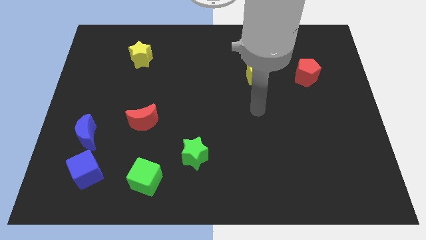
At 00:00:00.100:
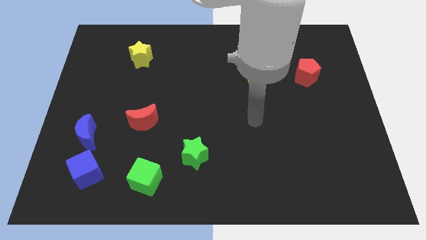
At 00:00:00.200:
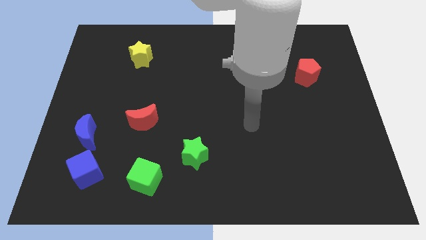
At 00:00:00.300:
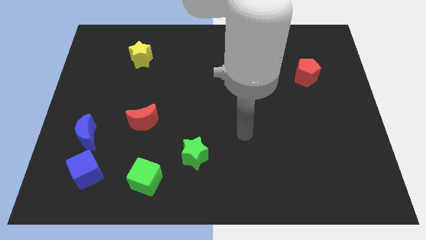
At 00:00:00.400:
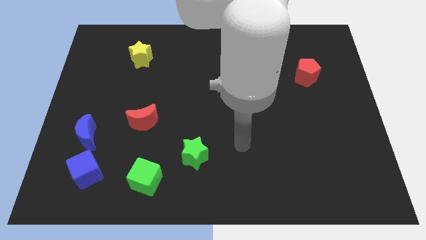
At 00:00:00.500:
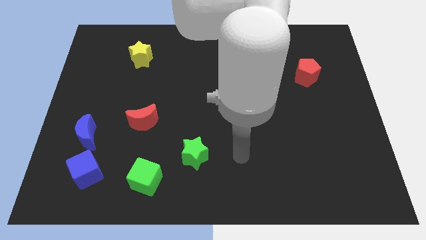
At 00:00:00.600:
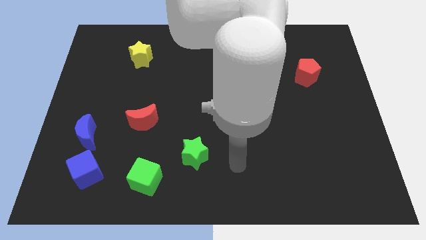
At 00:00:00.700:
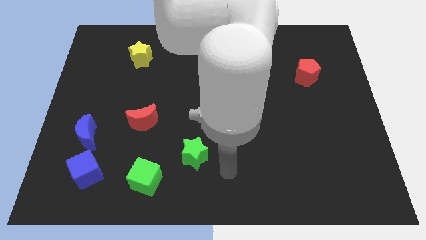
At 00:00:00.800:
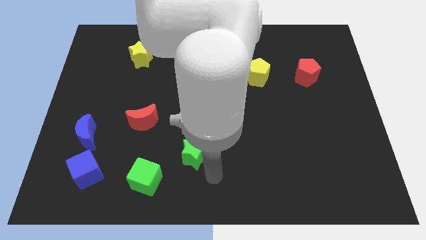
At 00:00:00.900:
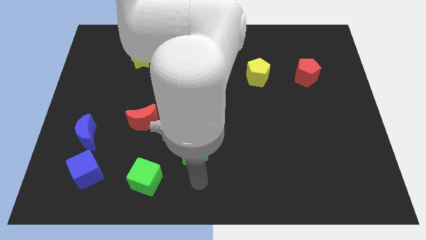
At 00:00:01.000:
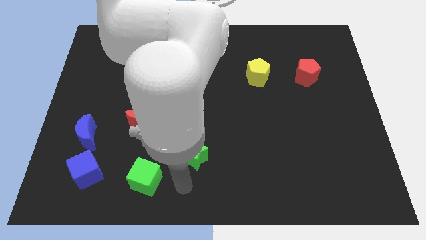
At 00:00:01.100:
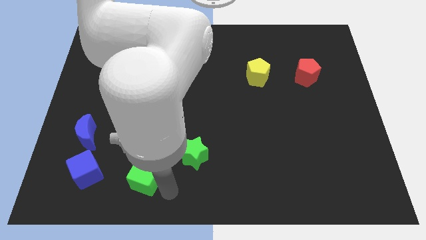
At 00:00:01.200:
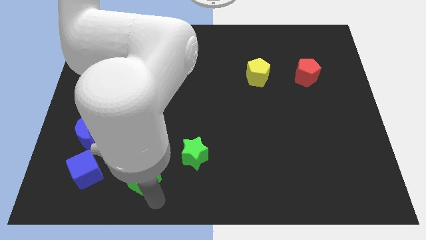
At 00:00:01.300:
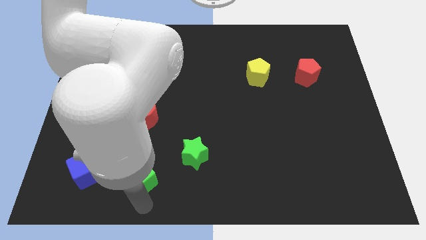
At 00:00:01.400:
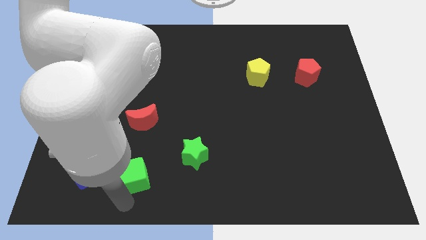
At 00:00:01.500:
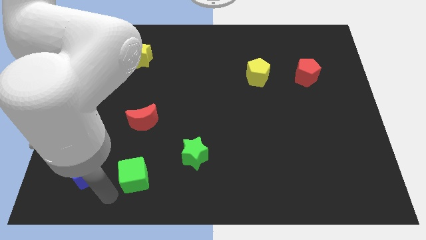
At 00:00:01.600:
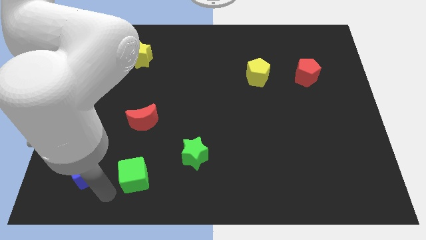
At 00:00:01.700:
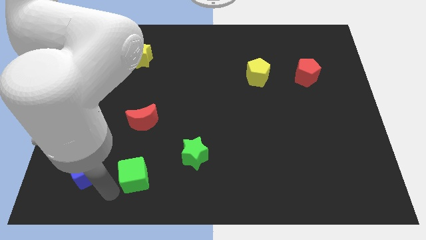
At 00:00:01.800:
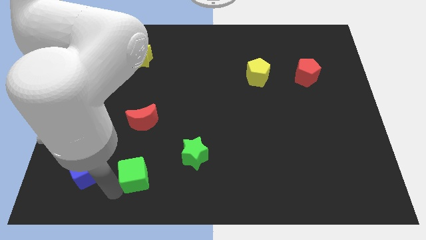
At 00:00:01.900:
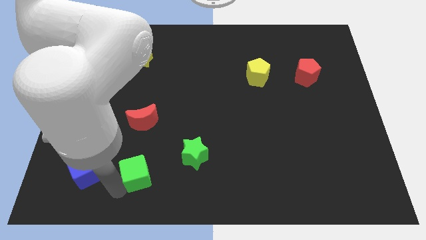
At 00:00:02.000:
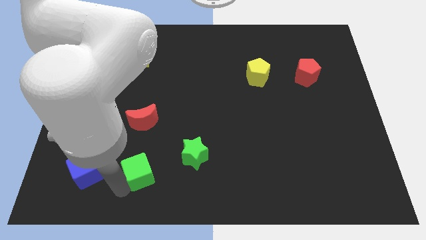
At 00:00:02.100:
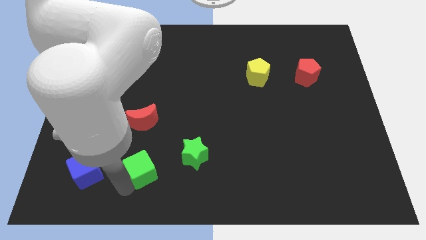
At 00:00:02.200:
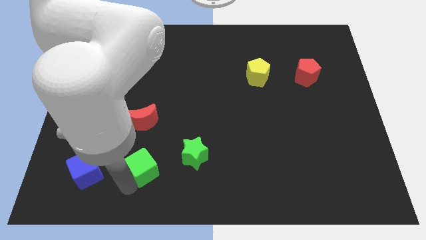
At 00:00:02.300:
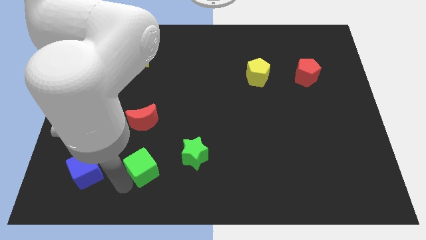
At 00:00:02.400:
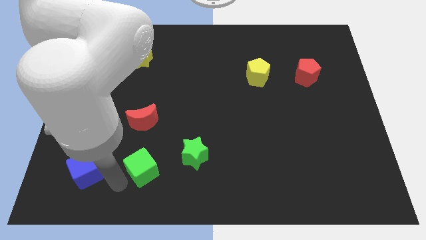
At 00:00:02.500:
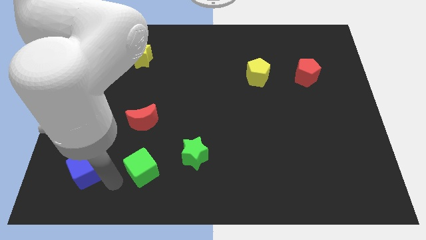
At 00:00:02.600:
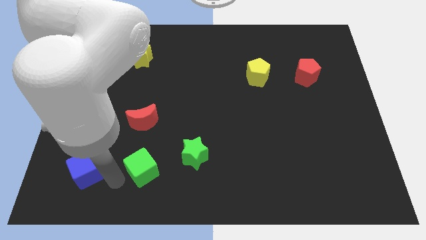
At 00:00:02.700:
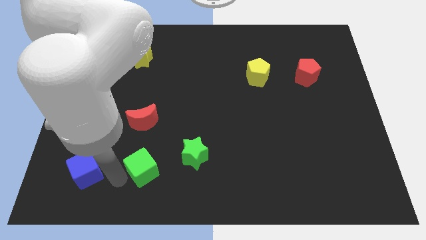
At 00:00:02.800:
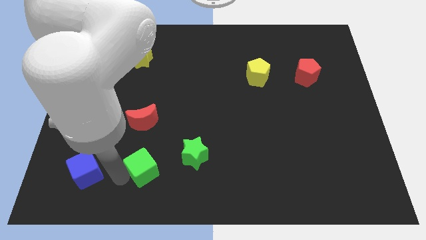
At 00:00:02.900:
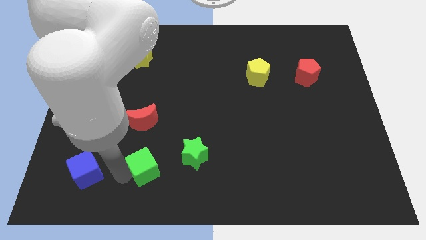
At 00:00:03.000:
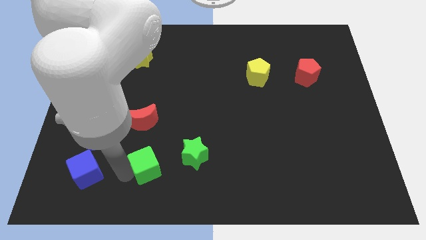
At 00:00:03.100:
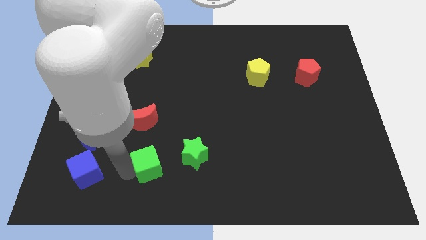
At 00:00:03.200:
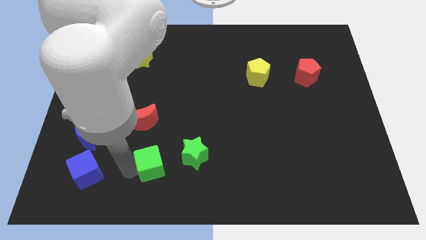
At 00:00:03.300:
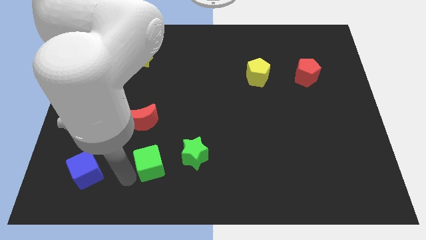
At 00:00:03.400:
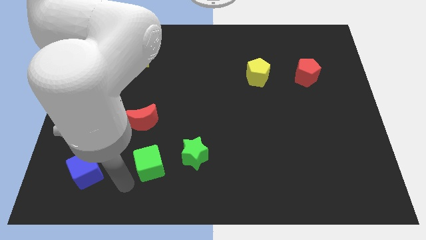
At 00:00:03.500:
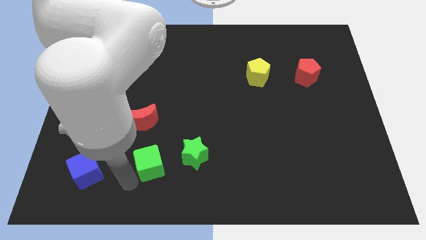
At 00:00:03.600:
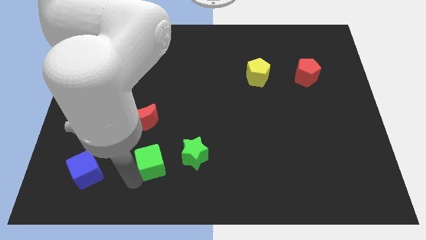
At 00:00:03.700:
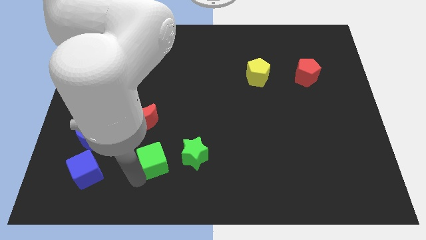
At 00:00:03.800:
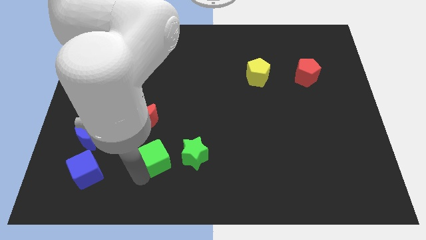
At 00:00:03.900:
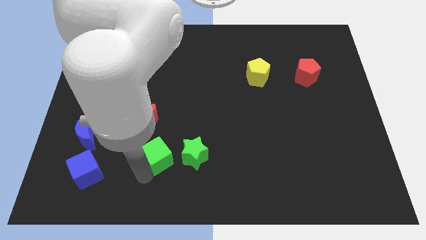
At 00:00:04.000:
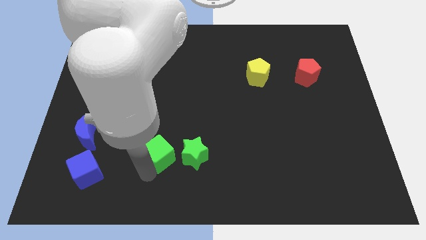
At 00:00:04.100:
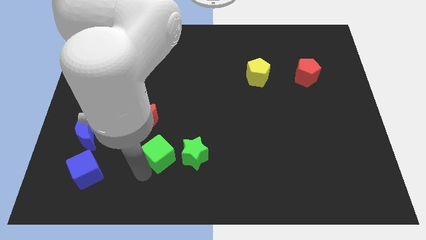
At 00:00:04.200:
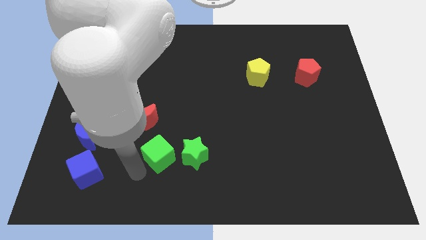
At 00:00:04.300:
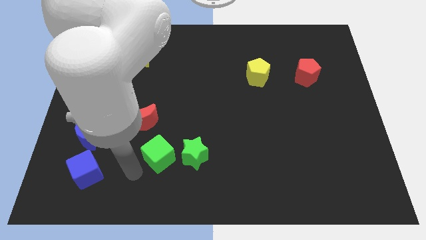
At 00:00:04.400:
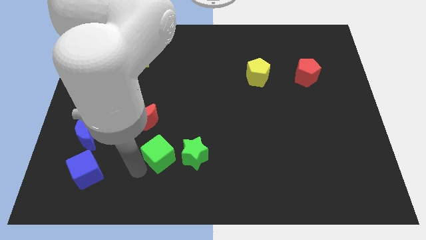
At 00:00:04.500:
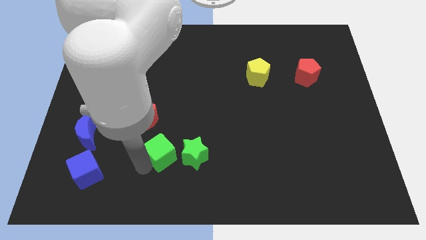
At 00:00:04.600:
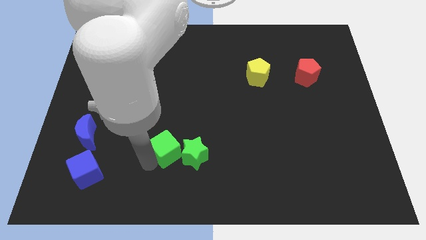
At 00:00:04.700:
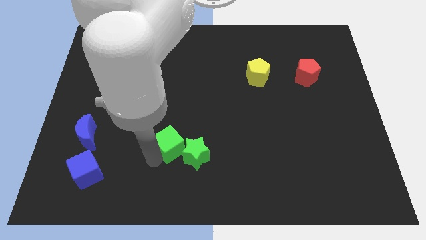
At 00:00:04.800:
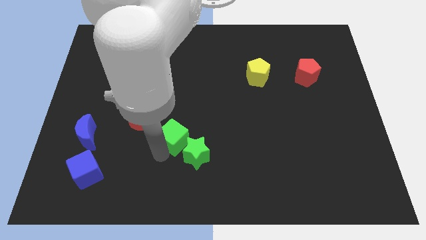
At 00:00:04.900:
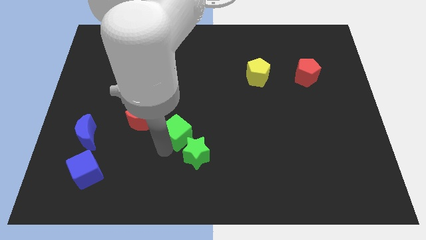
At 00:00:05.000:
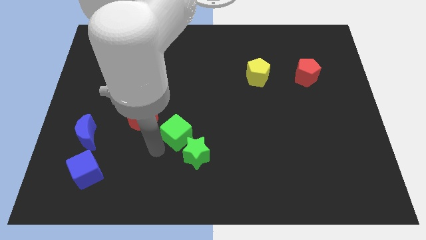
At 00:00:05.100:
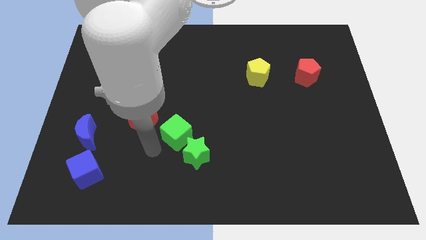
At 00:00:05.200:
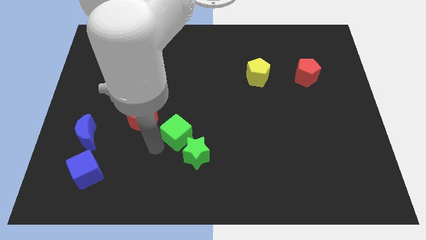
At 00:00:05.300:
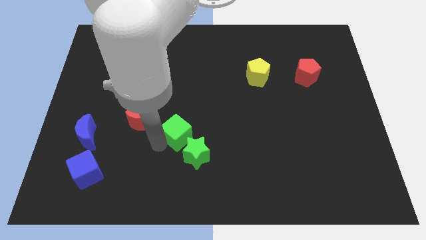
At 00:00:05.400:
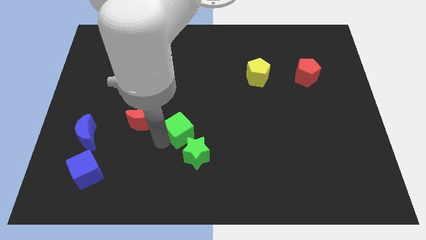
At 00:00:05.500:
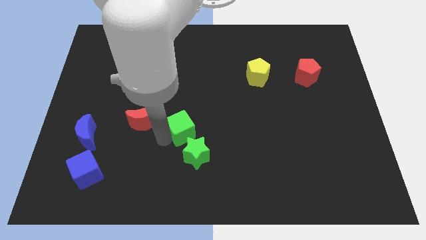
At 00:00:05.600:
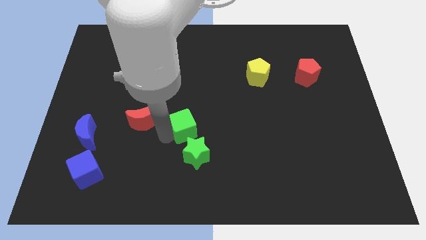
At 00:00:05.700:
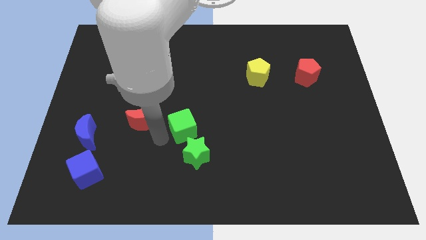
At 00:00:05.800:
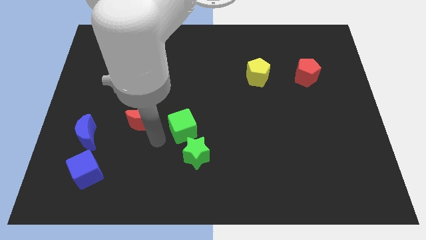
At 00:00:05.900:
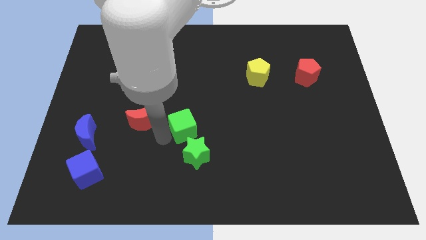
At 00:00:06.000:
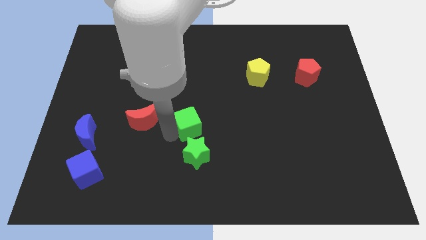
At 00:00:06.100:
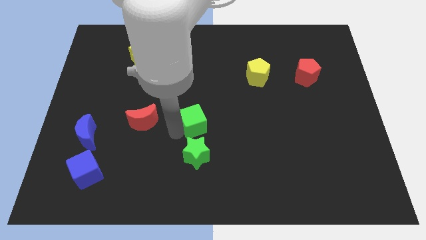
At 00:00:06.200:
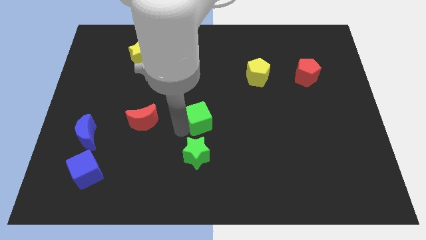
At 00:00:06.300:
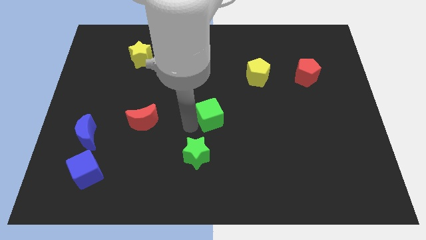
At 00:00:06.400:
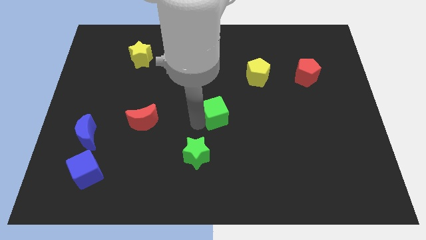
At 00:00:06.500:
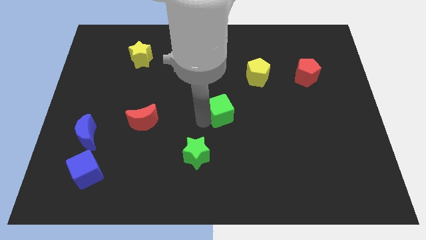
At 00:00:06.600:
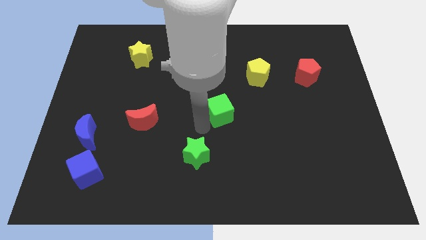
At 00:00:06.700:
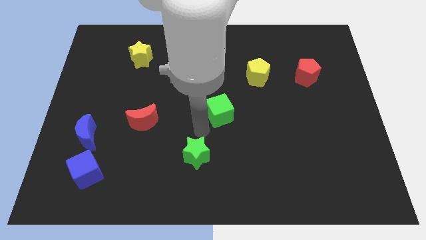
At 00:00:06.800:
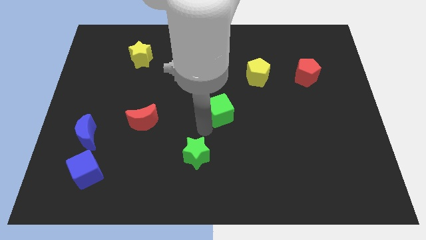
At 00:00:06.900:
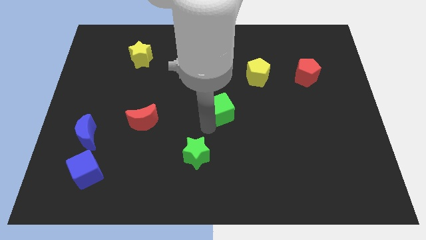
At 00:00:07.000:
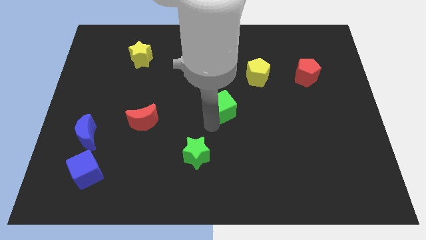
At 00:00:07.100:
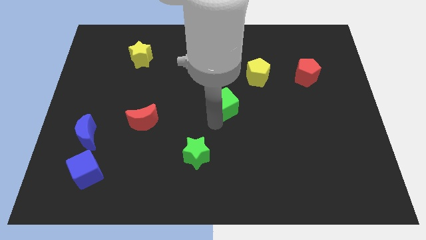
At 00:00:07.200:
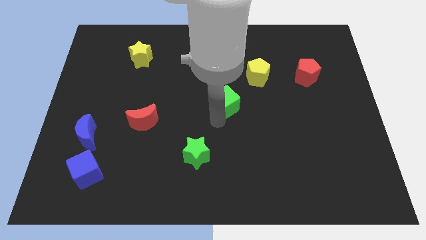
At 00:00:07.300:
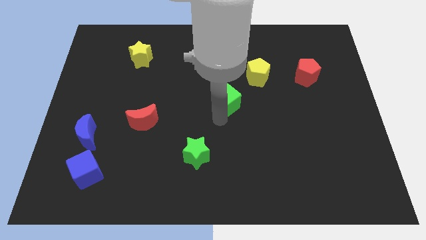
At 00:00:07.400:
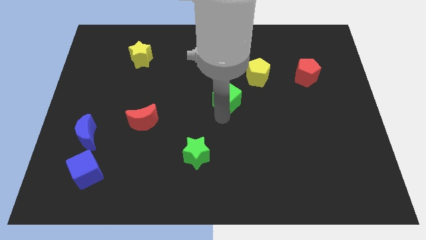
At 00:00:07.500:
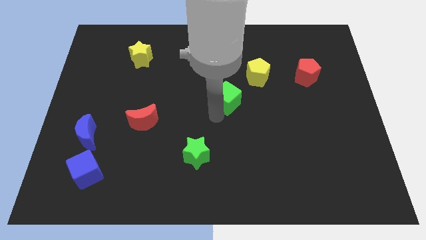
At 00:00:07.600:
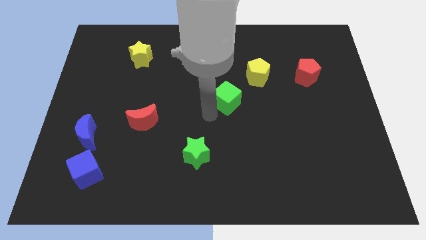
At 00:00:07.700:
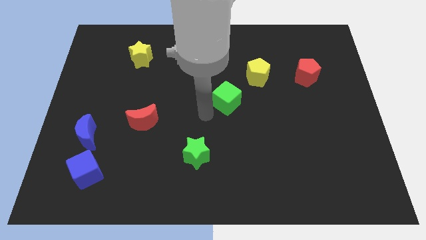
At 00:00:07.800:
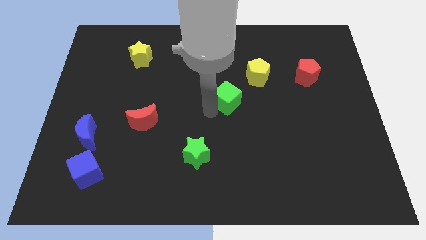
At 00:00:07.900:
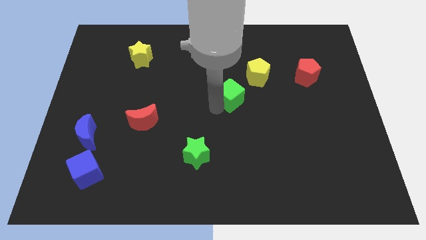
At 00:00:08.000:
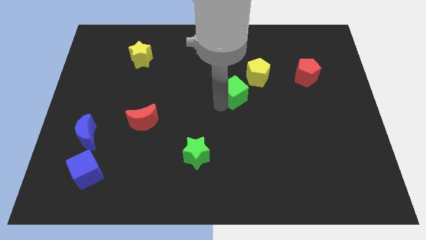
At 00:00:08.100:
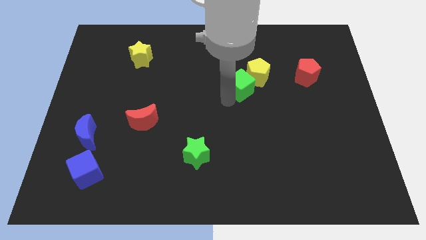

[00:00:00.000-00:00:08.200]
push the green cube close to the yellow pentagon
